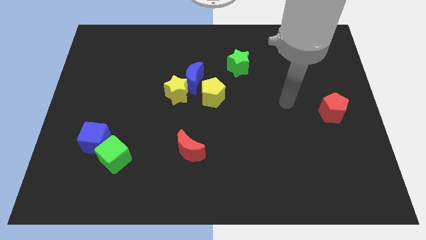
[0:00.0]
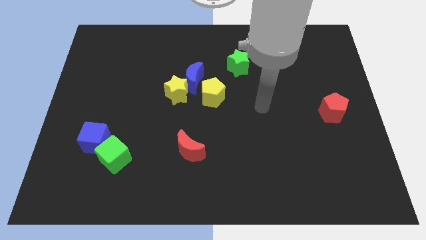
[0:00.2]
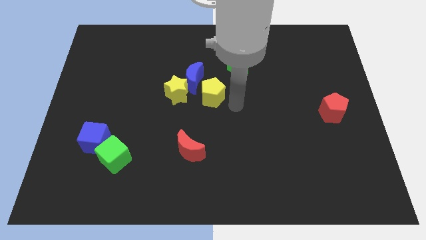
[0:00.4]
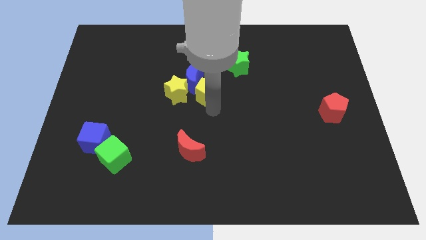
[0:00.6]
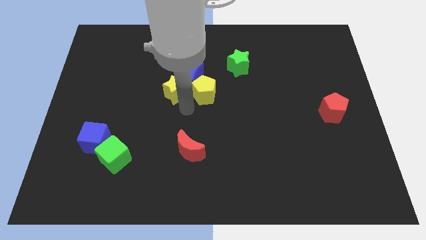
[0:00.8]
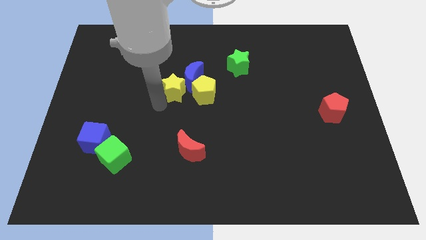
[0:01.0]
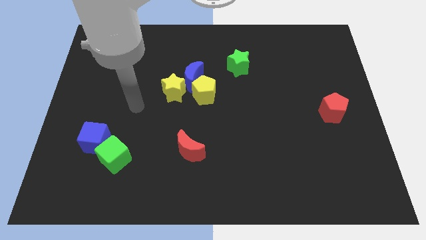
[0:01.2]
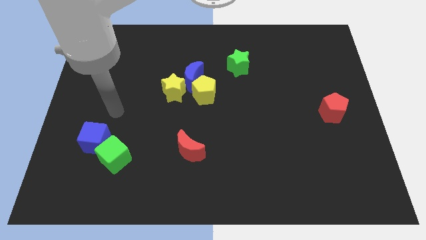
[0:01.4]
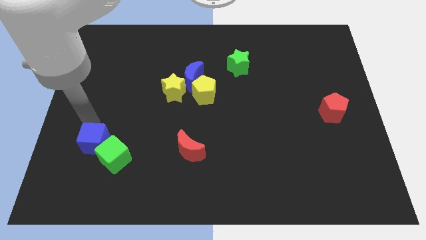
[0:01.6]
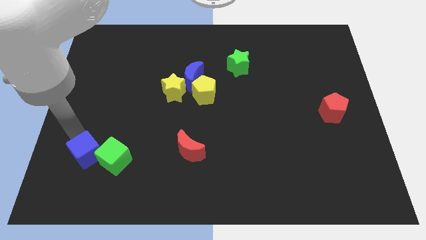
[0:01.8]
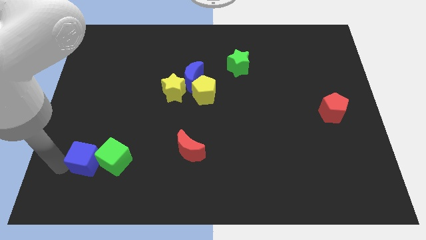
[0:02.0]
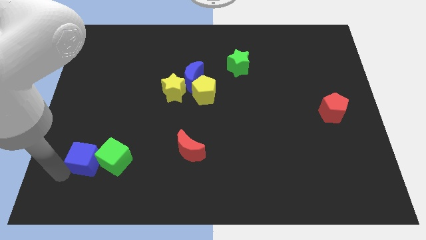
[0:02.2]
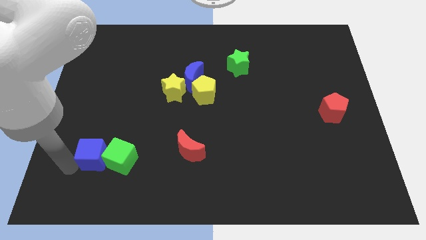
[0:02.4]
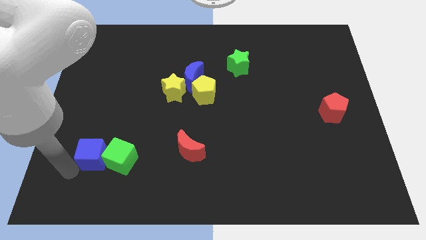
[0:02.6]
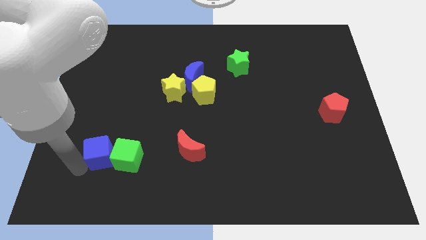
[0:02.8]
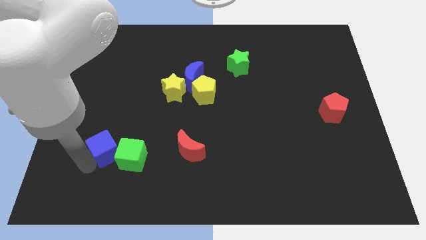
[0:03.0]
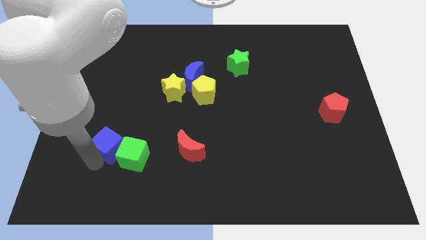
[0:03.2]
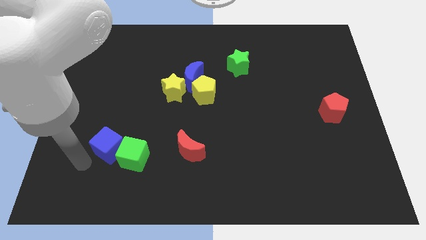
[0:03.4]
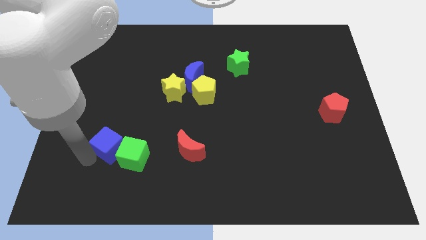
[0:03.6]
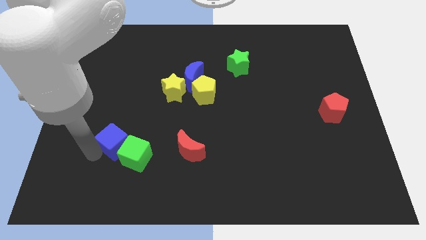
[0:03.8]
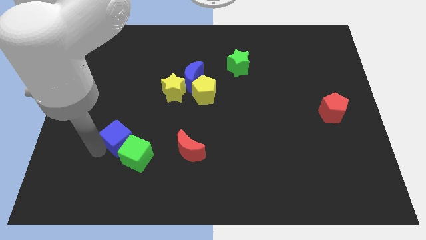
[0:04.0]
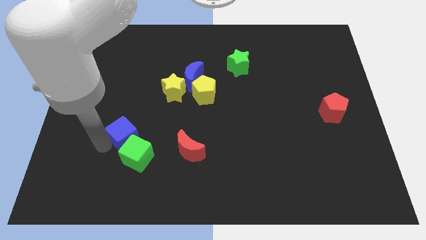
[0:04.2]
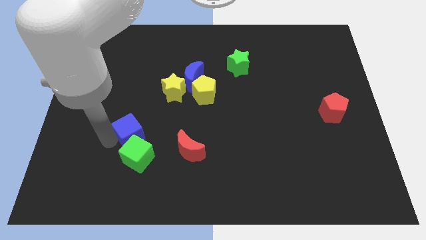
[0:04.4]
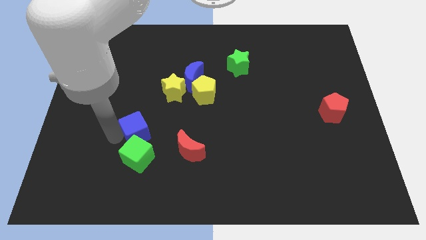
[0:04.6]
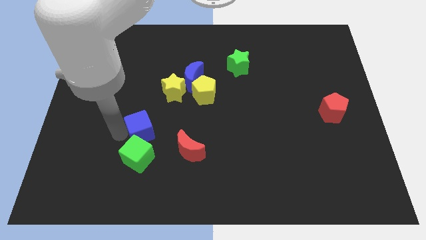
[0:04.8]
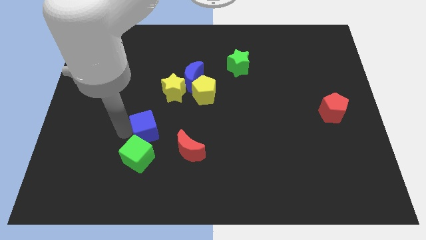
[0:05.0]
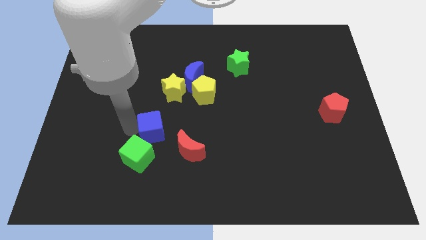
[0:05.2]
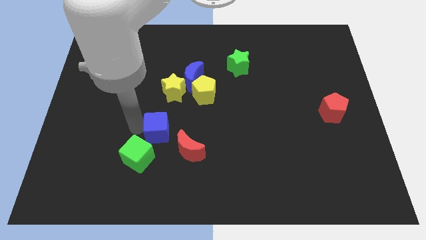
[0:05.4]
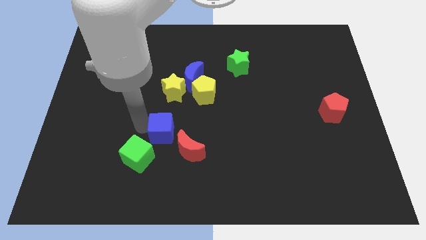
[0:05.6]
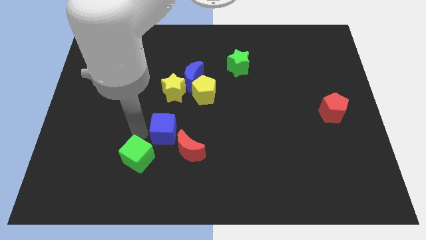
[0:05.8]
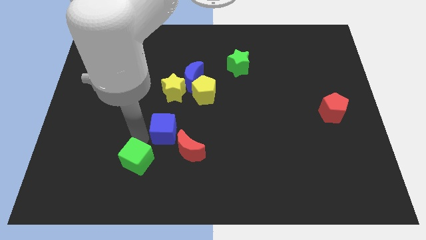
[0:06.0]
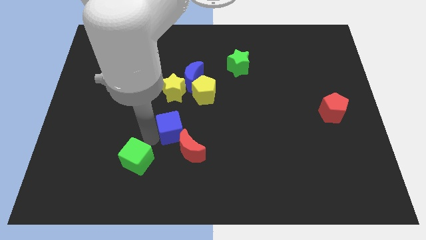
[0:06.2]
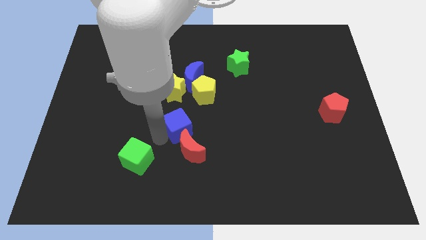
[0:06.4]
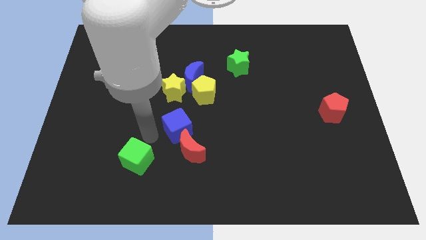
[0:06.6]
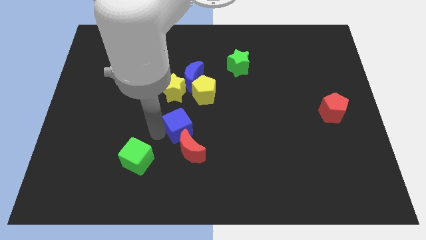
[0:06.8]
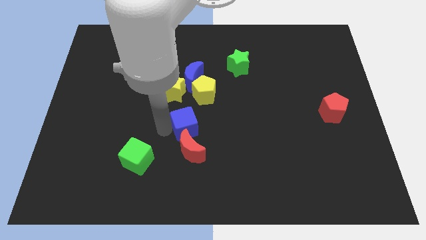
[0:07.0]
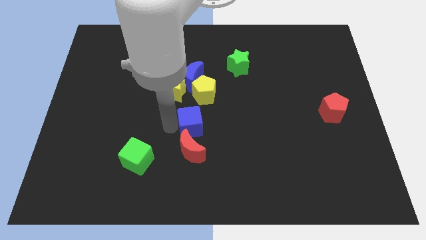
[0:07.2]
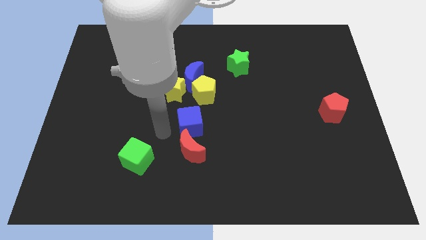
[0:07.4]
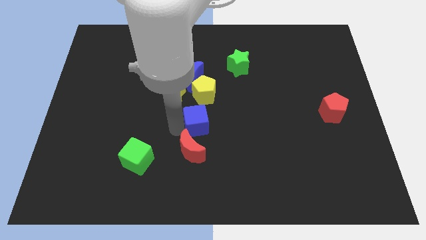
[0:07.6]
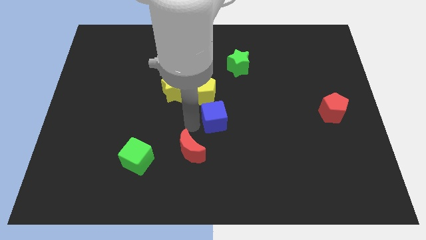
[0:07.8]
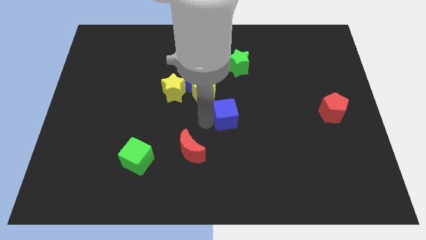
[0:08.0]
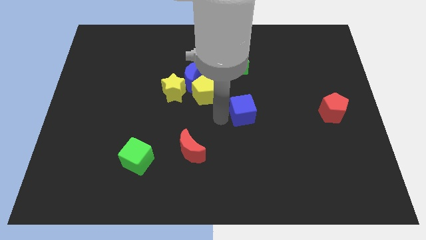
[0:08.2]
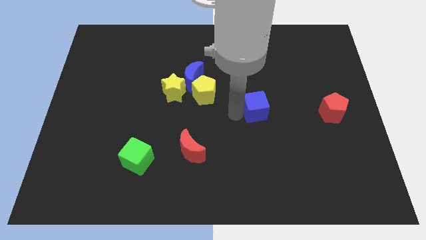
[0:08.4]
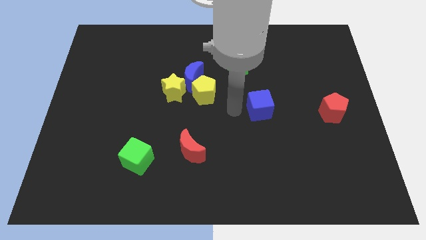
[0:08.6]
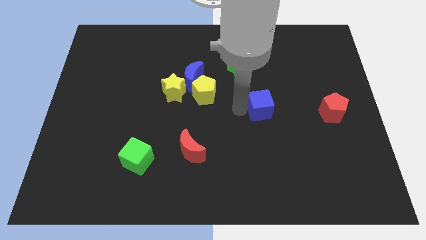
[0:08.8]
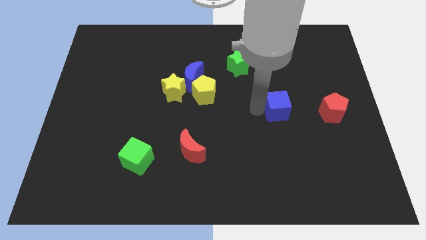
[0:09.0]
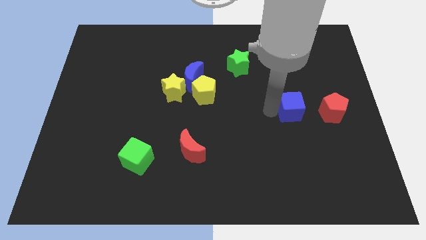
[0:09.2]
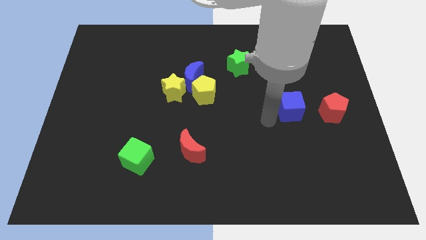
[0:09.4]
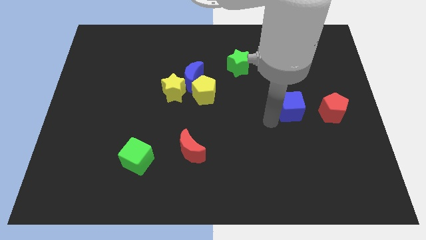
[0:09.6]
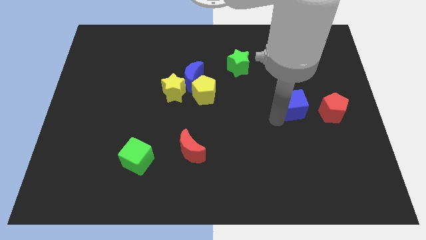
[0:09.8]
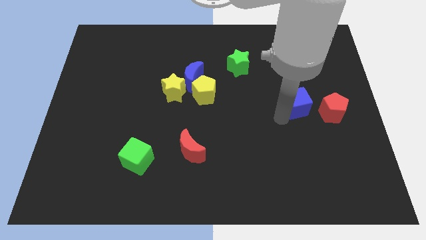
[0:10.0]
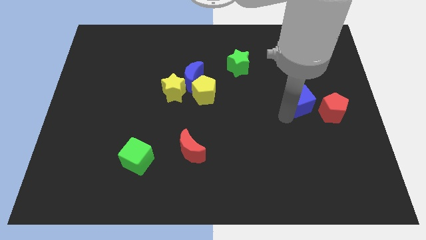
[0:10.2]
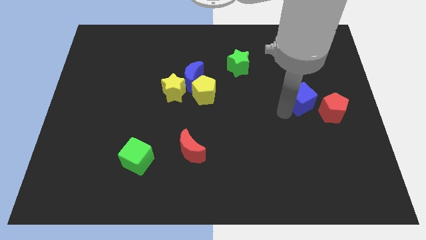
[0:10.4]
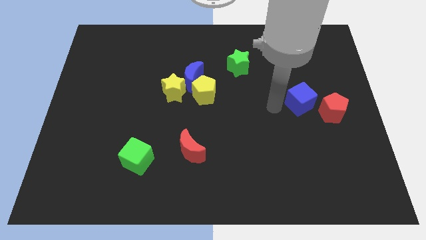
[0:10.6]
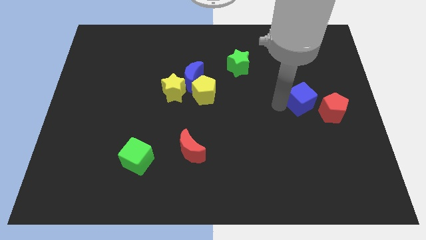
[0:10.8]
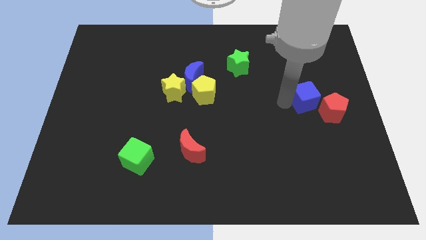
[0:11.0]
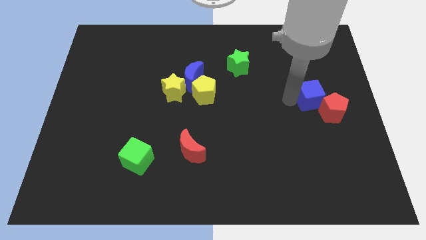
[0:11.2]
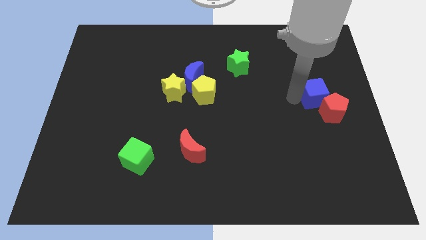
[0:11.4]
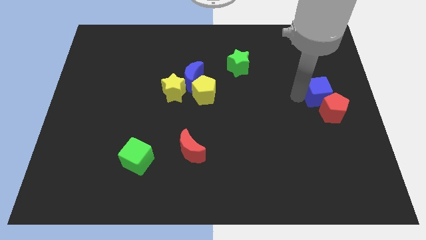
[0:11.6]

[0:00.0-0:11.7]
move the blue cube to the right side
